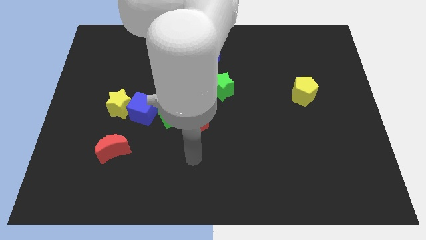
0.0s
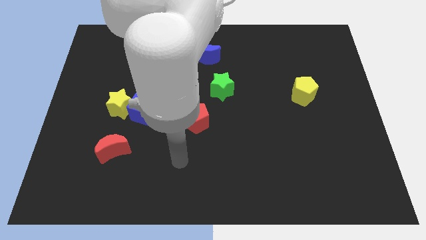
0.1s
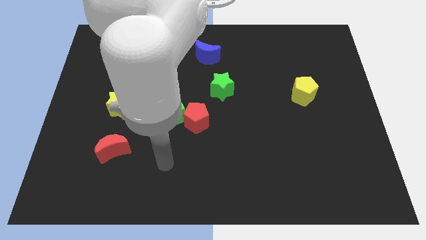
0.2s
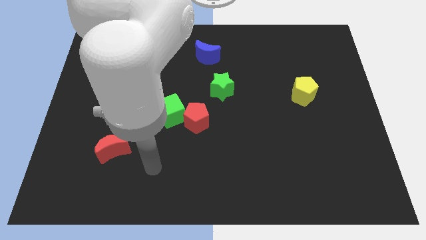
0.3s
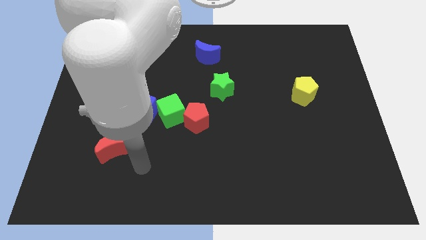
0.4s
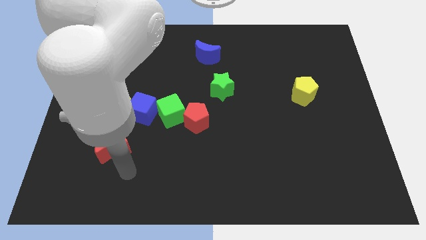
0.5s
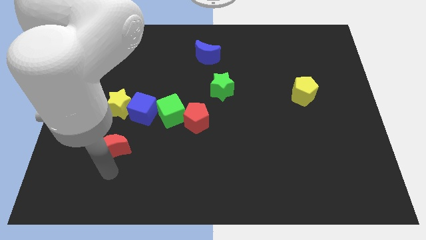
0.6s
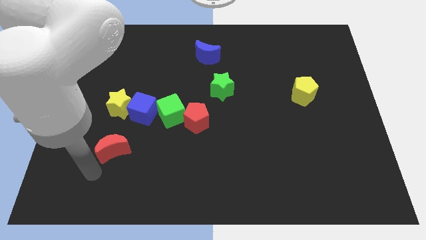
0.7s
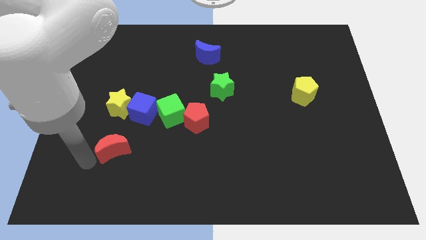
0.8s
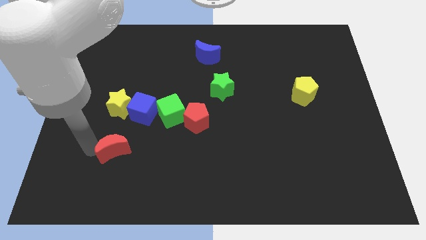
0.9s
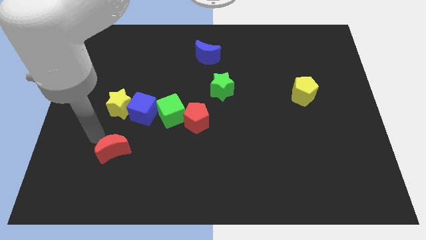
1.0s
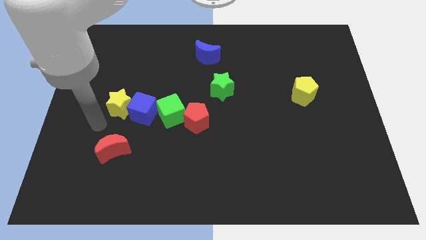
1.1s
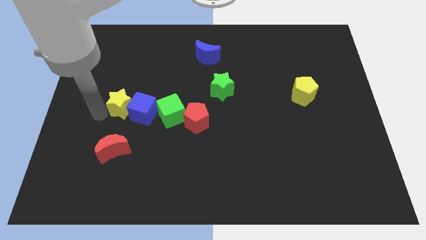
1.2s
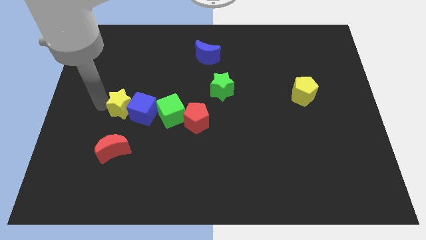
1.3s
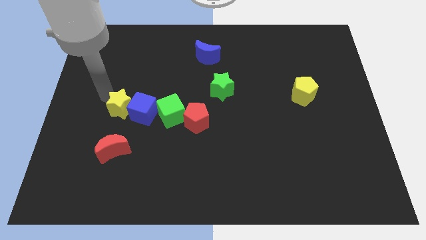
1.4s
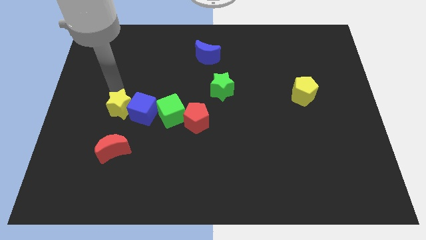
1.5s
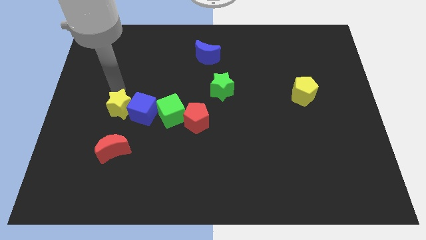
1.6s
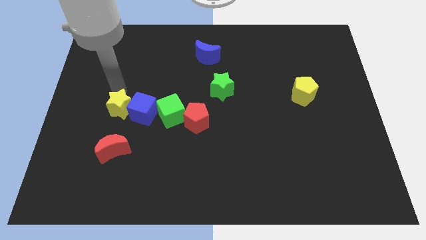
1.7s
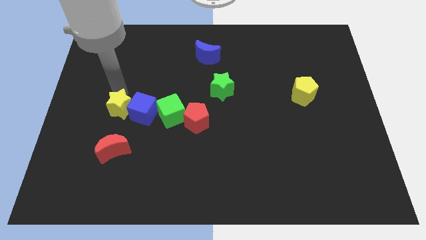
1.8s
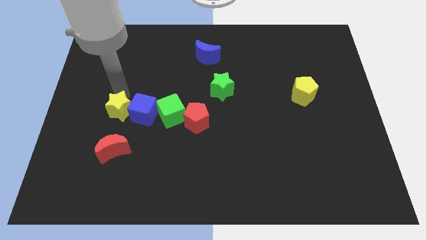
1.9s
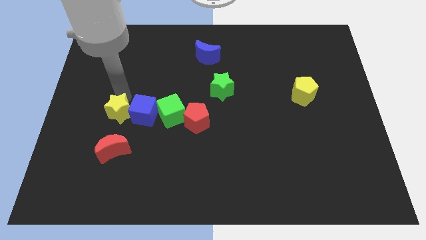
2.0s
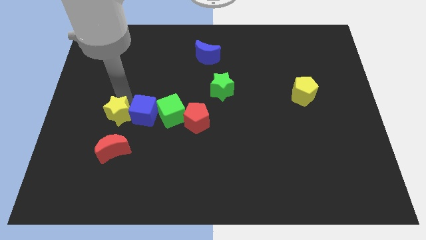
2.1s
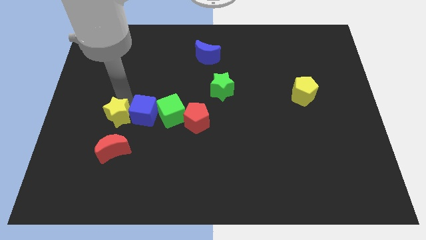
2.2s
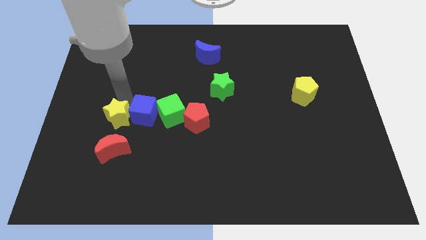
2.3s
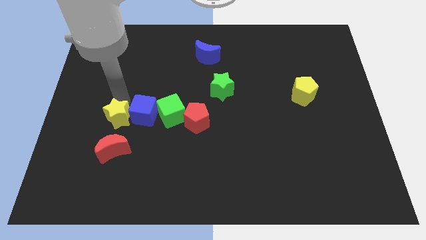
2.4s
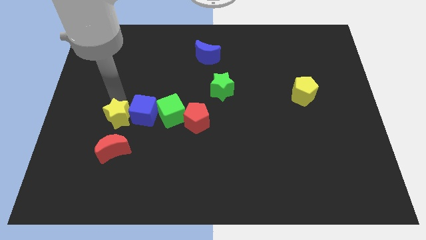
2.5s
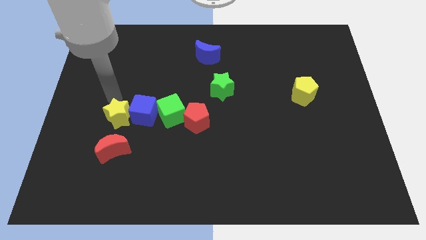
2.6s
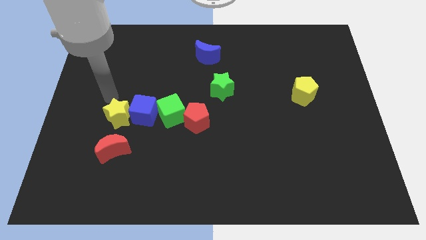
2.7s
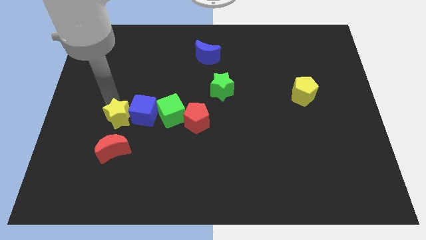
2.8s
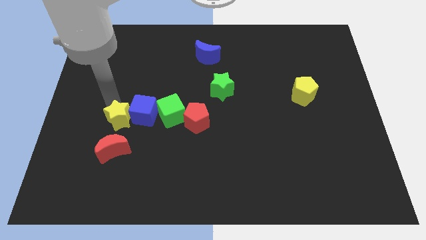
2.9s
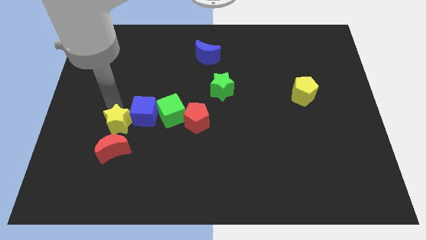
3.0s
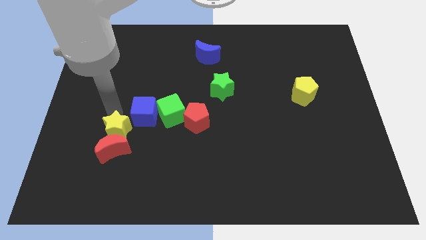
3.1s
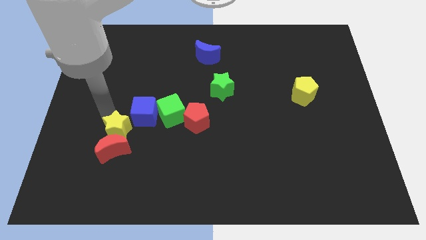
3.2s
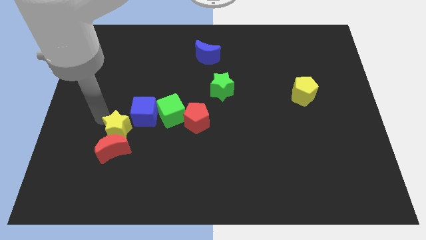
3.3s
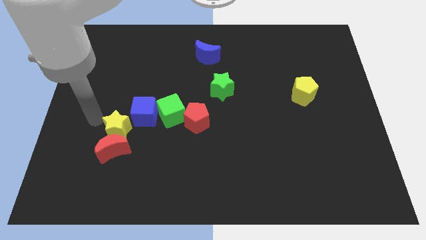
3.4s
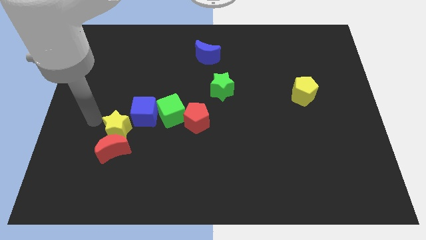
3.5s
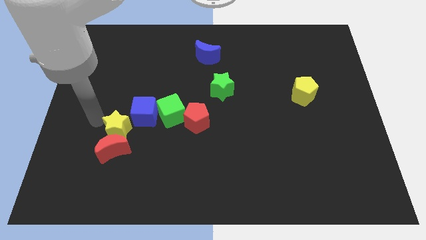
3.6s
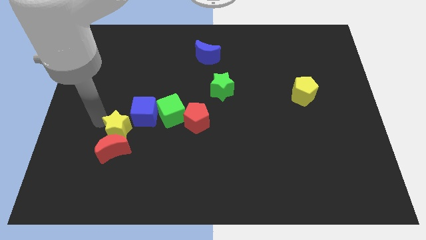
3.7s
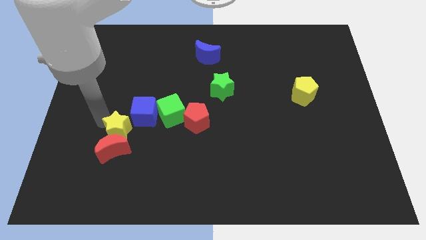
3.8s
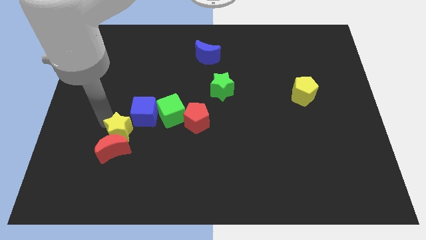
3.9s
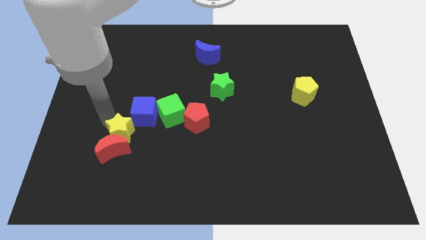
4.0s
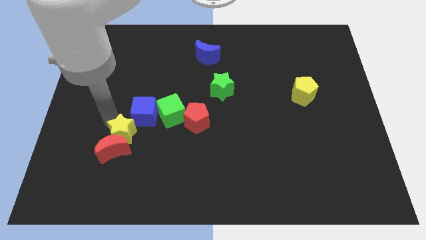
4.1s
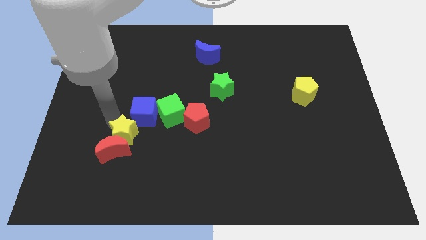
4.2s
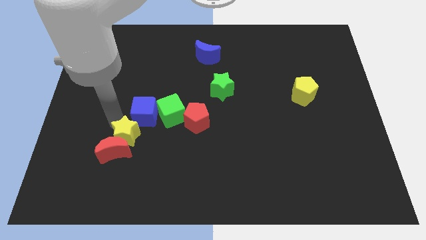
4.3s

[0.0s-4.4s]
slightly move the yellow star downwards and to the right diagonally

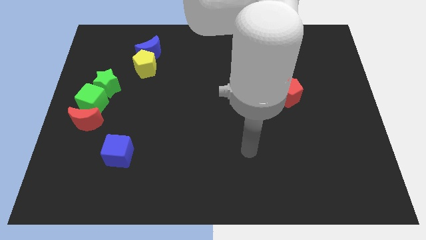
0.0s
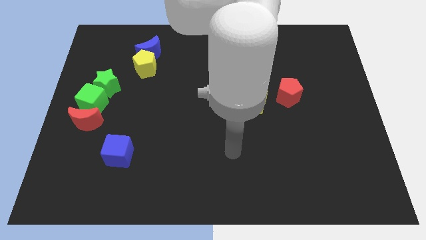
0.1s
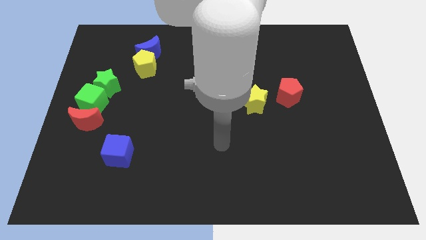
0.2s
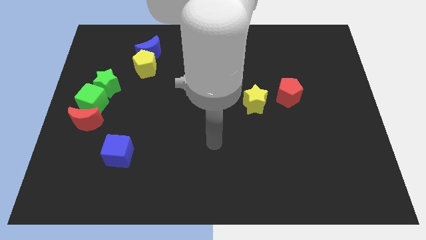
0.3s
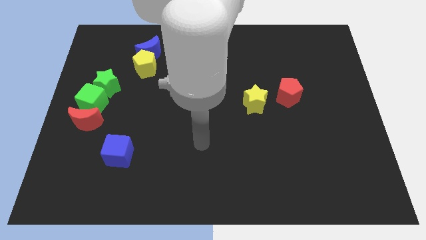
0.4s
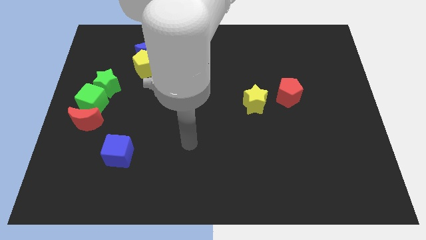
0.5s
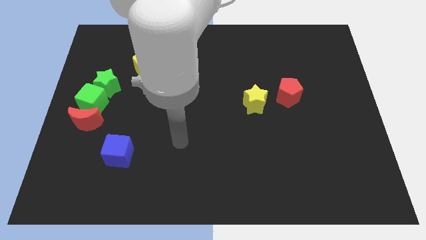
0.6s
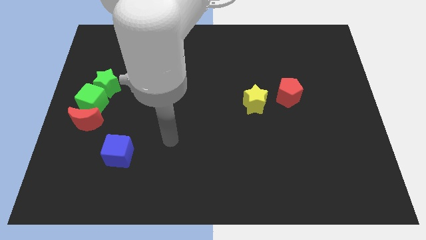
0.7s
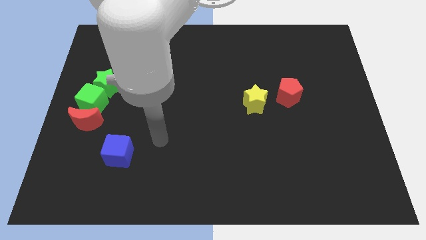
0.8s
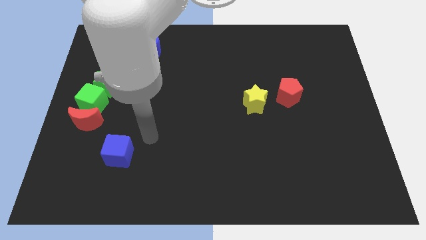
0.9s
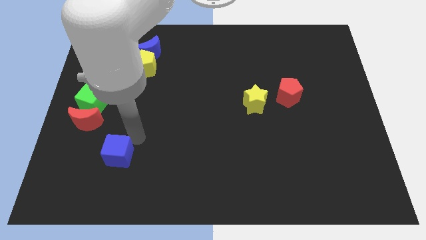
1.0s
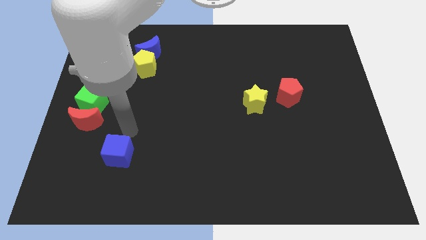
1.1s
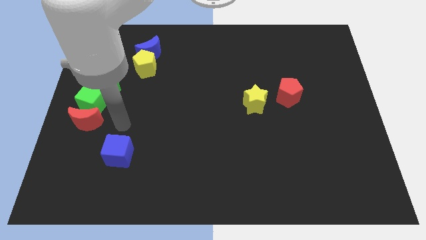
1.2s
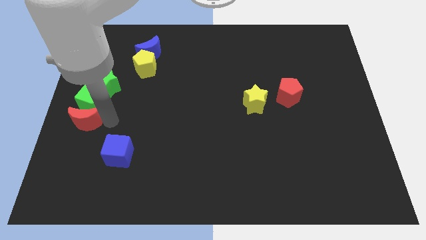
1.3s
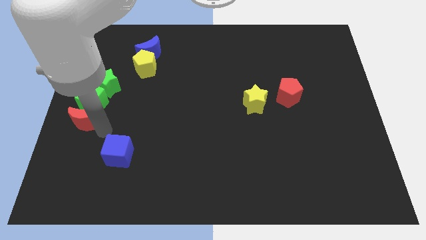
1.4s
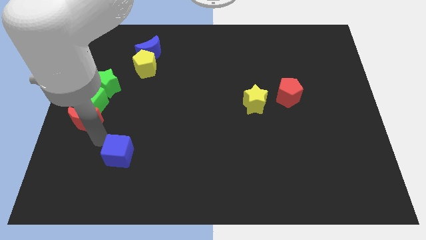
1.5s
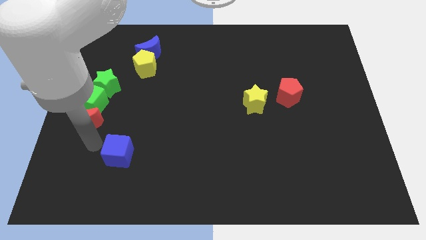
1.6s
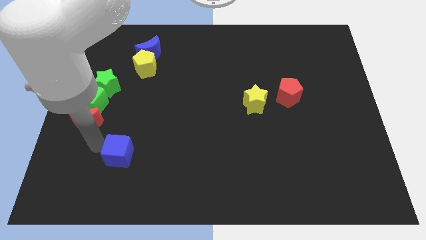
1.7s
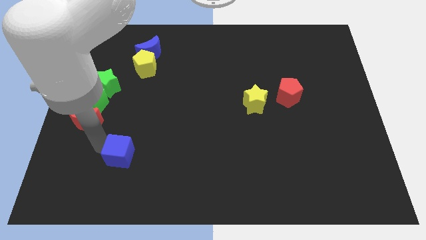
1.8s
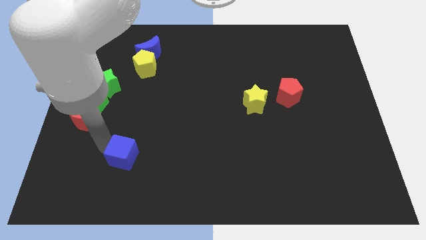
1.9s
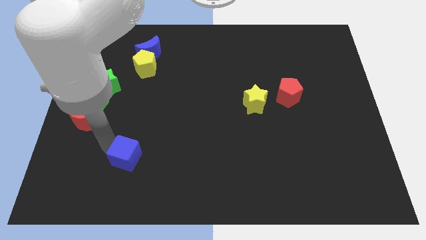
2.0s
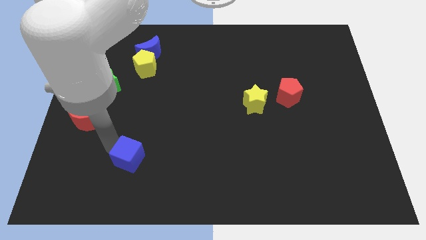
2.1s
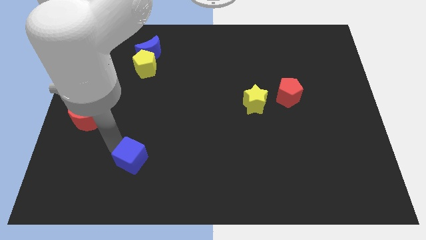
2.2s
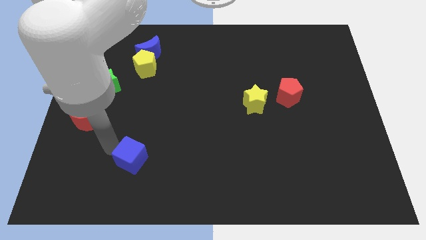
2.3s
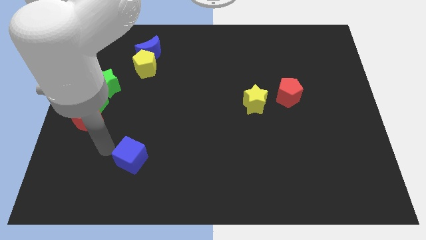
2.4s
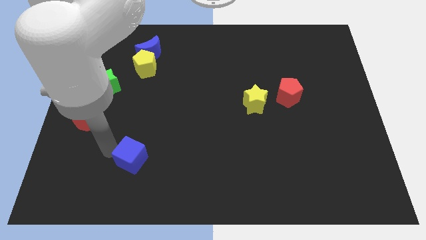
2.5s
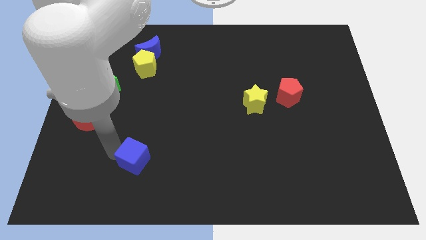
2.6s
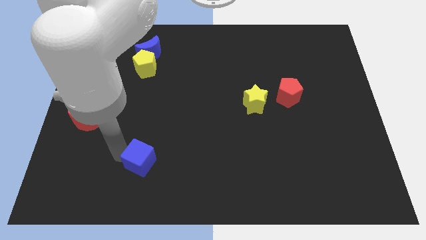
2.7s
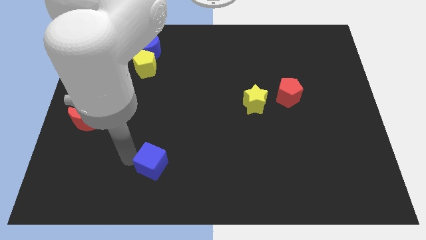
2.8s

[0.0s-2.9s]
slightly push the blue cube to the right

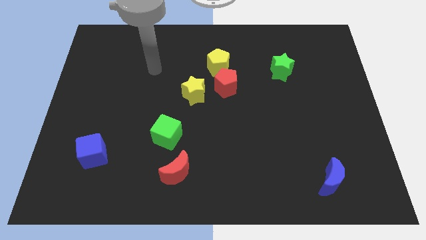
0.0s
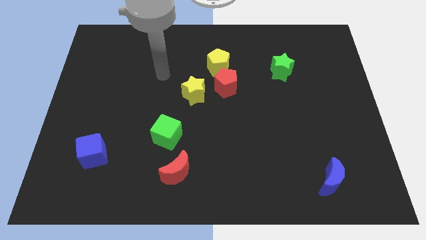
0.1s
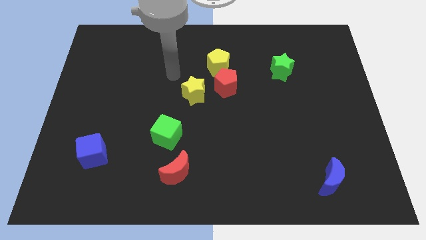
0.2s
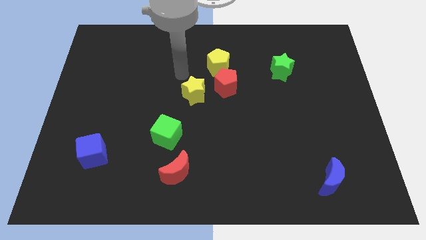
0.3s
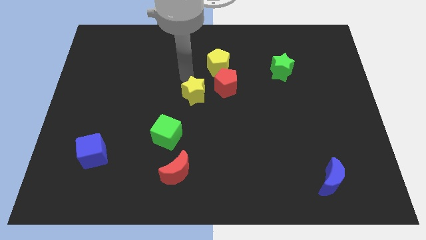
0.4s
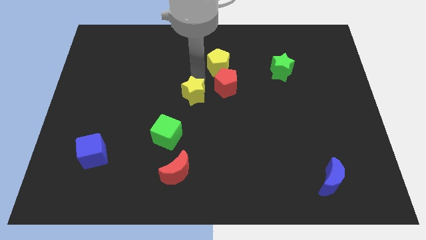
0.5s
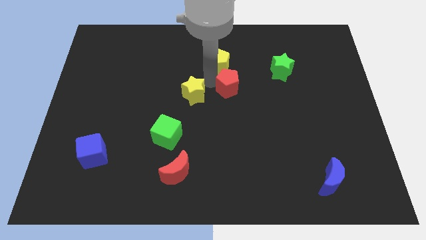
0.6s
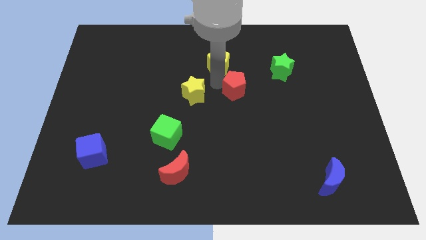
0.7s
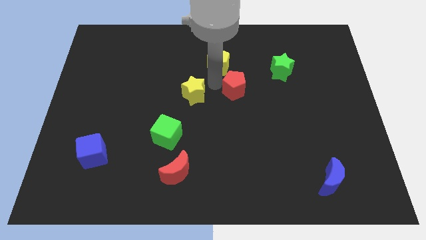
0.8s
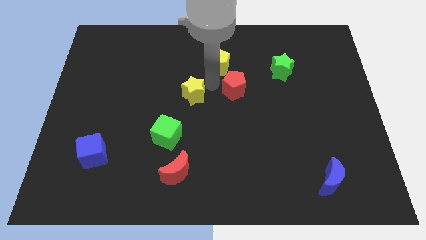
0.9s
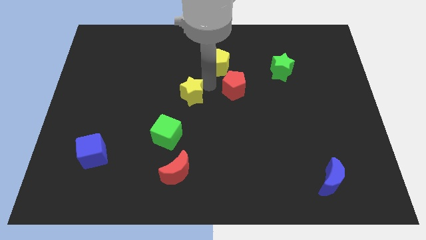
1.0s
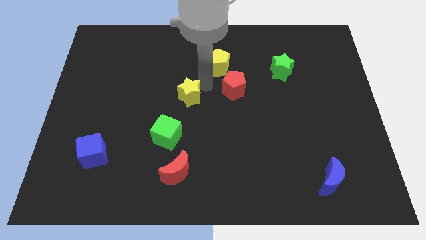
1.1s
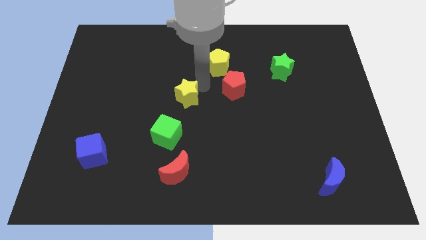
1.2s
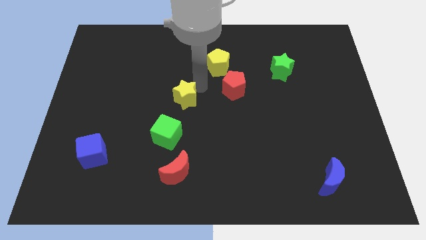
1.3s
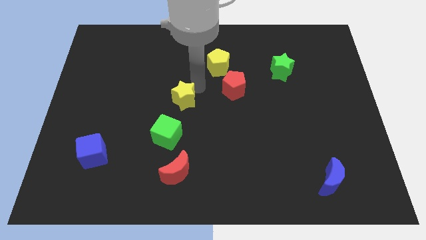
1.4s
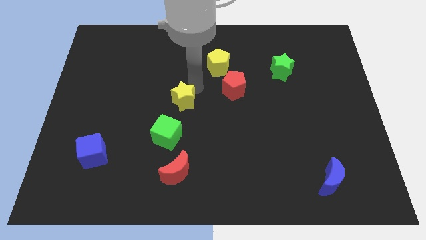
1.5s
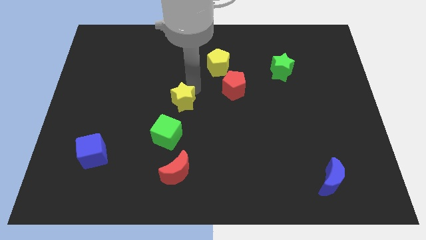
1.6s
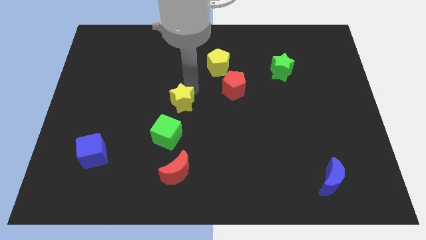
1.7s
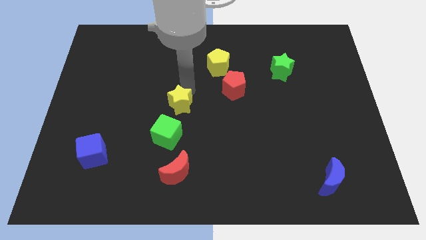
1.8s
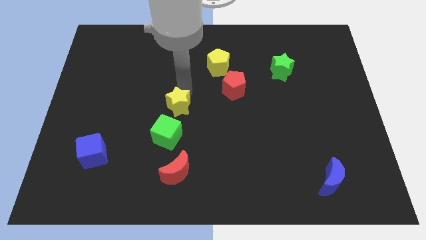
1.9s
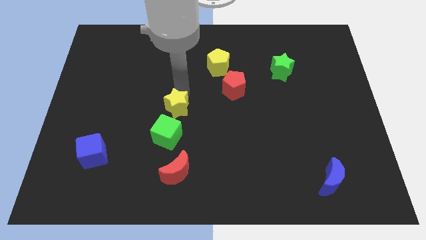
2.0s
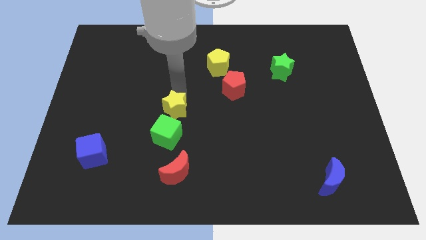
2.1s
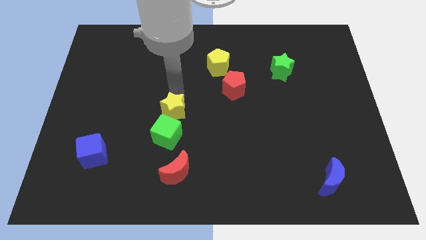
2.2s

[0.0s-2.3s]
move the yellow star down and left a little
